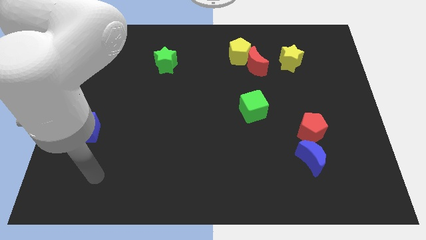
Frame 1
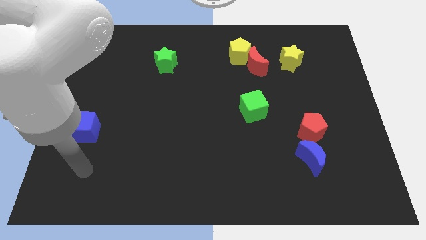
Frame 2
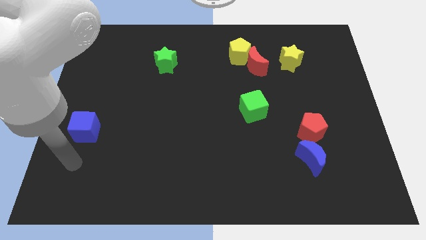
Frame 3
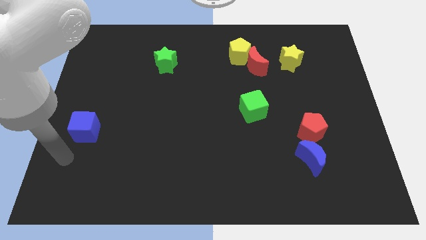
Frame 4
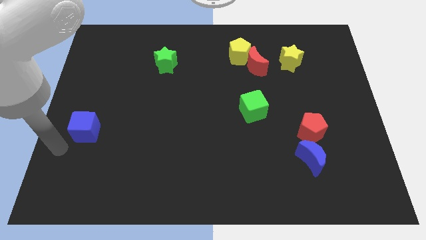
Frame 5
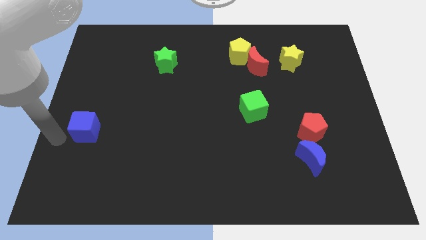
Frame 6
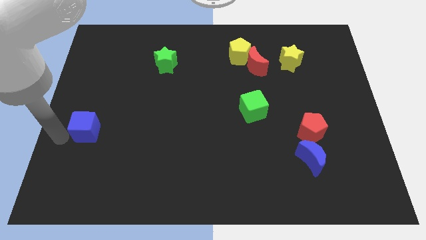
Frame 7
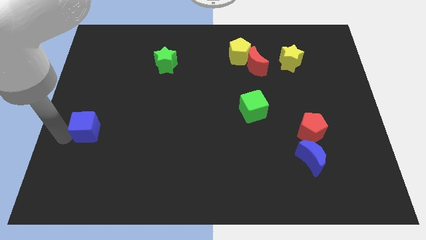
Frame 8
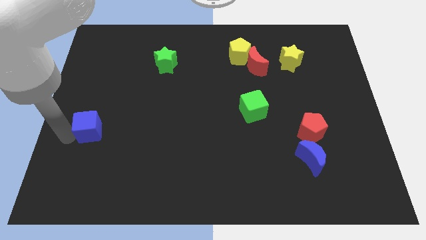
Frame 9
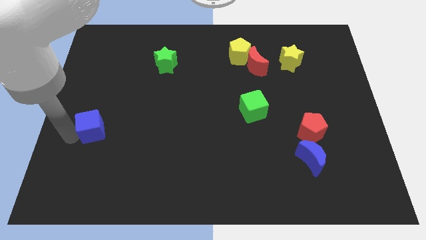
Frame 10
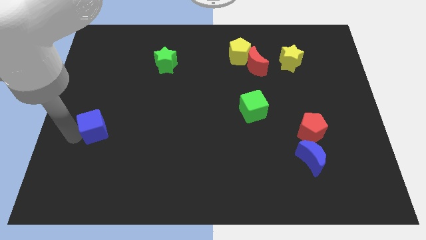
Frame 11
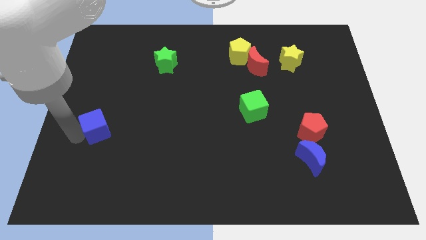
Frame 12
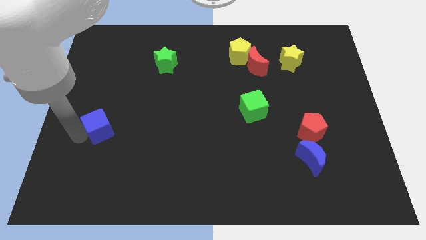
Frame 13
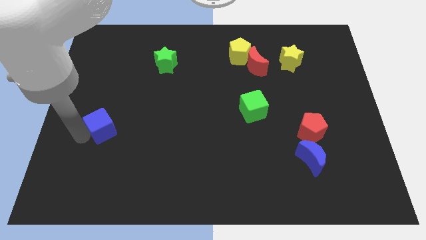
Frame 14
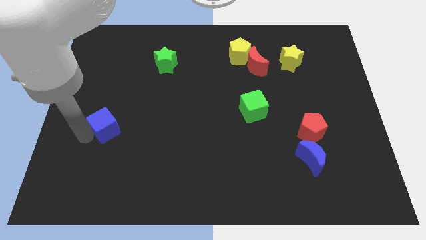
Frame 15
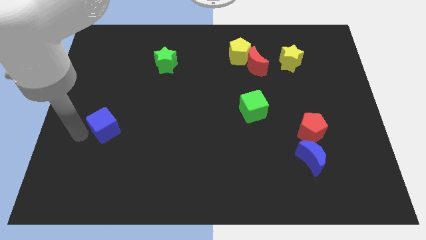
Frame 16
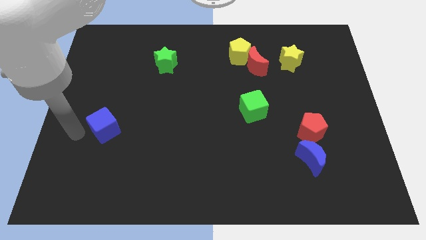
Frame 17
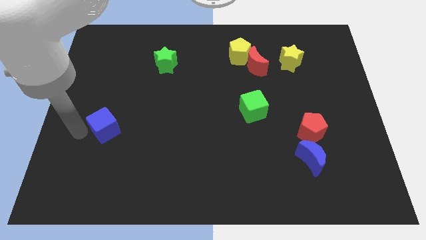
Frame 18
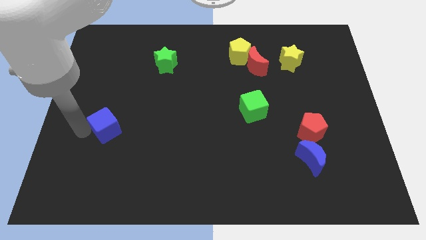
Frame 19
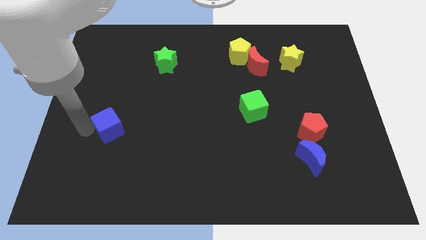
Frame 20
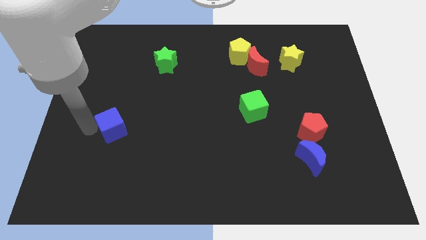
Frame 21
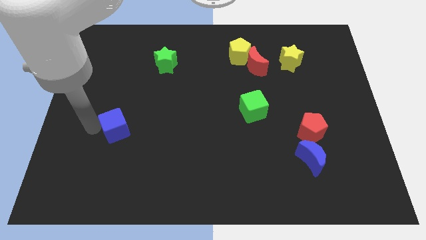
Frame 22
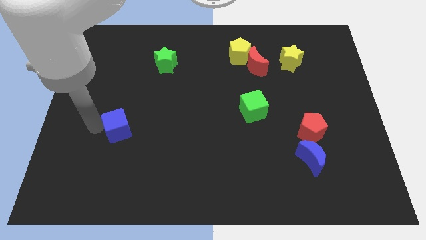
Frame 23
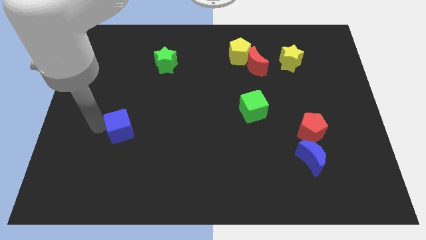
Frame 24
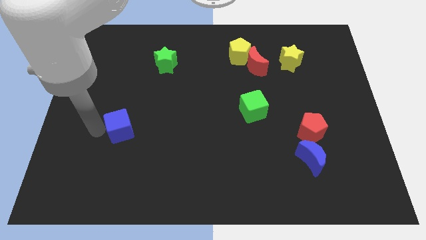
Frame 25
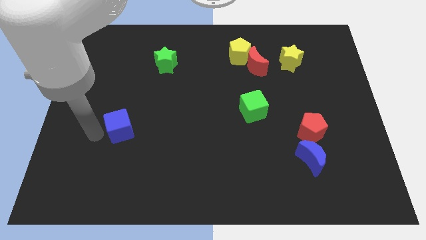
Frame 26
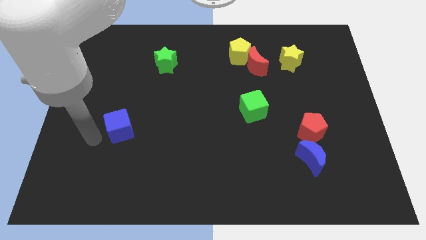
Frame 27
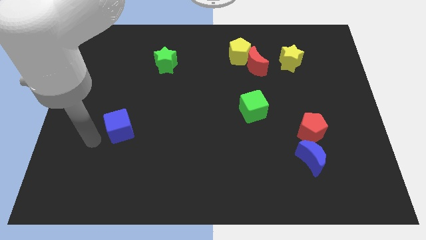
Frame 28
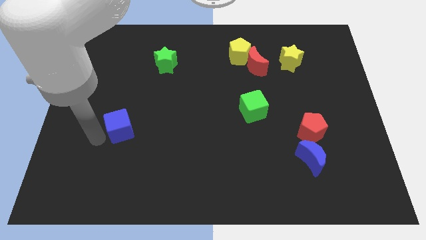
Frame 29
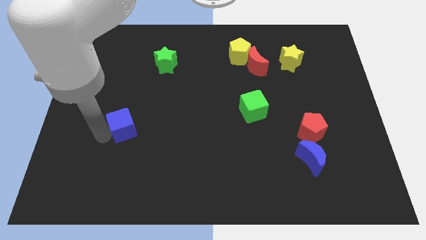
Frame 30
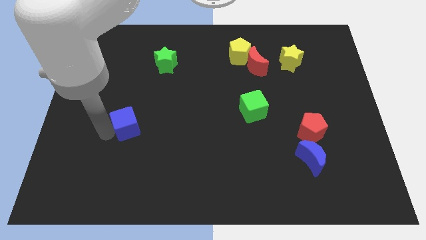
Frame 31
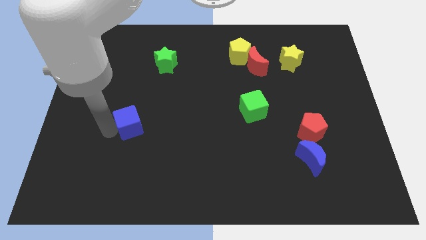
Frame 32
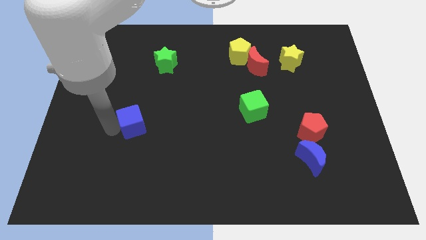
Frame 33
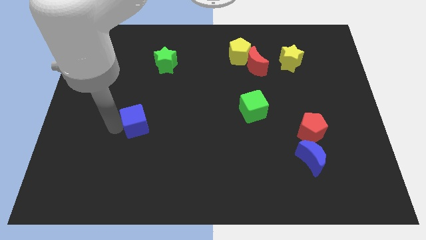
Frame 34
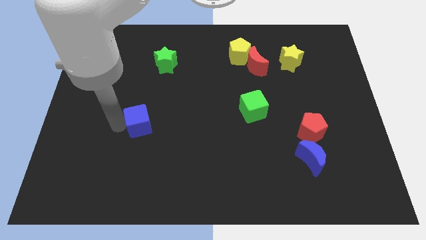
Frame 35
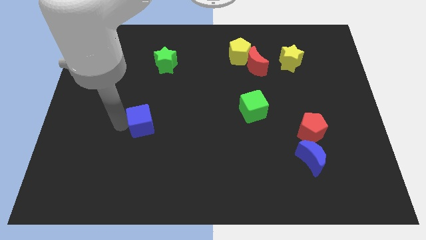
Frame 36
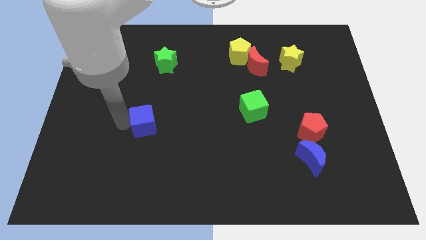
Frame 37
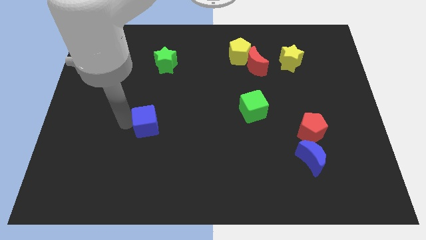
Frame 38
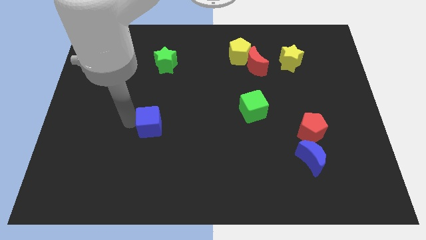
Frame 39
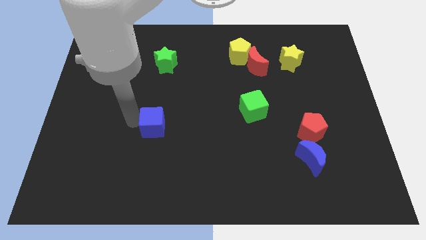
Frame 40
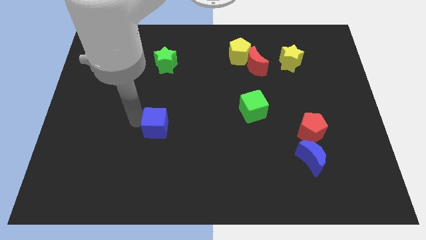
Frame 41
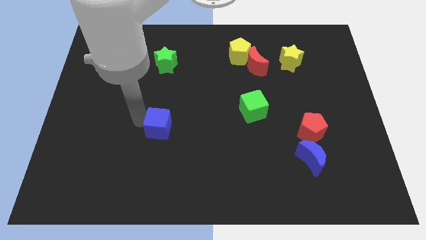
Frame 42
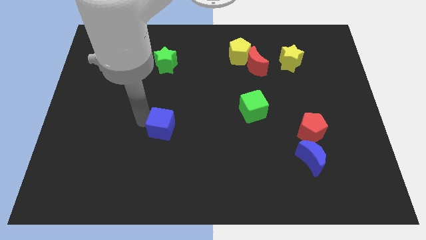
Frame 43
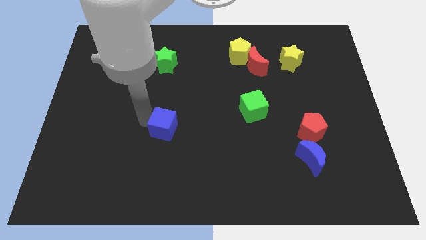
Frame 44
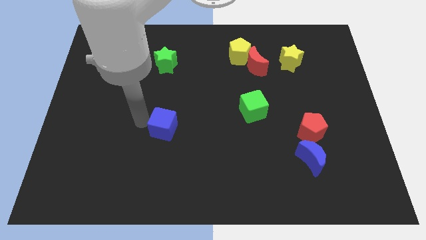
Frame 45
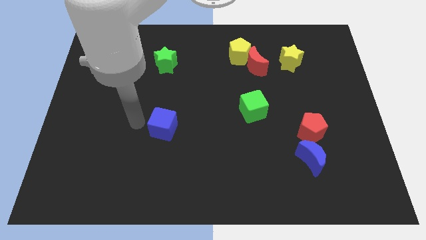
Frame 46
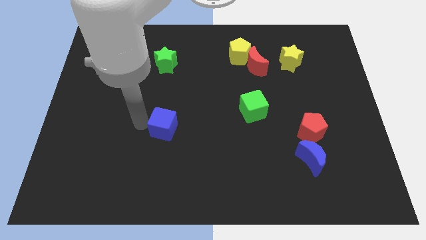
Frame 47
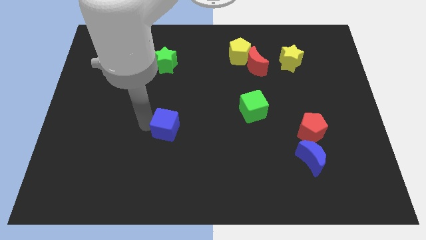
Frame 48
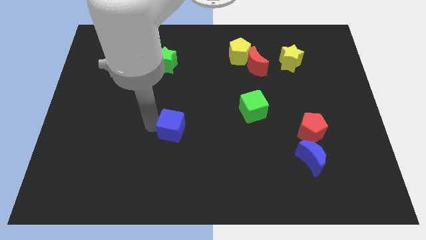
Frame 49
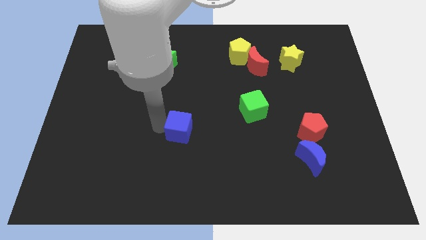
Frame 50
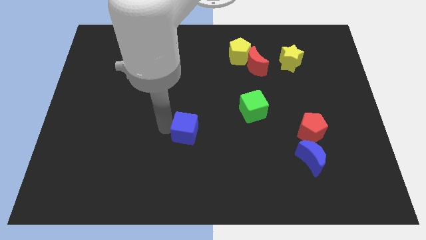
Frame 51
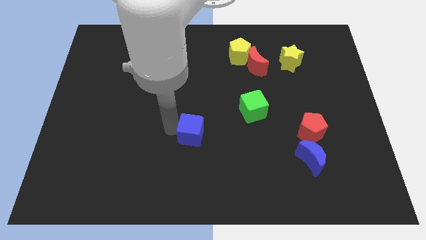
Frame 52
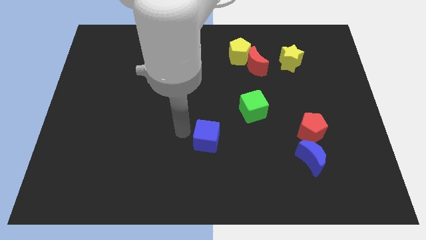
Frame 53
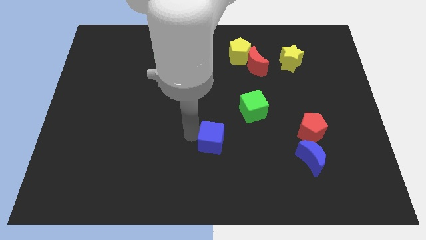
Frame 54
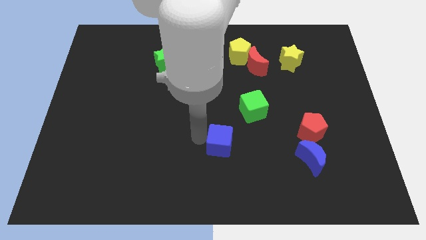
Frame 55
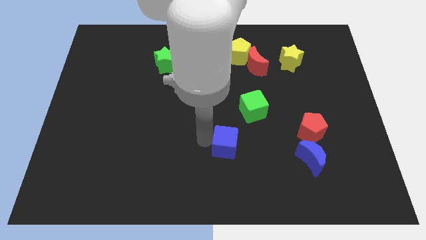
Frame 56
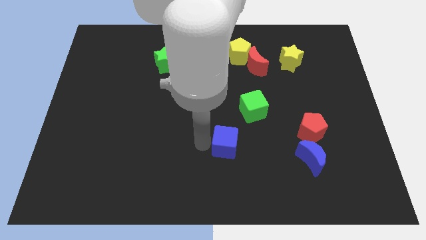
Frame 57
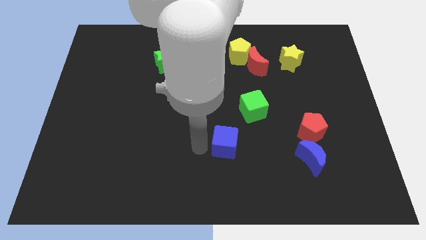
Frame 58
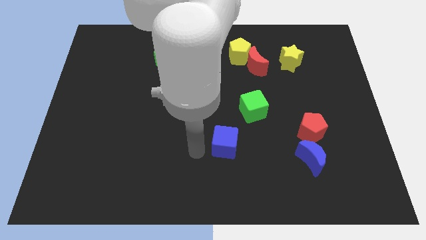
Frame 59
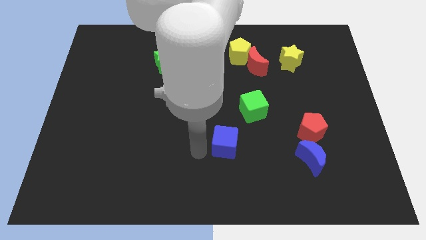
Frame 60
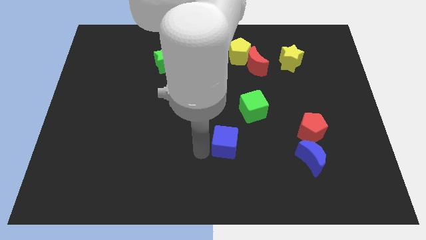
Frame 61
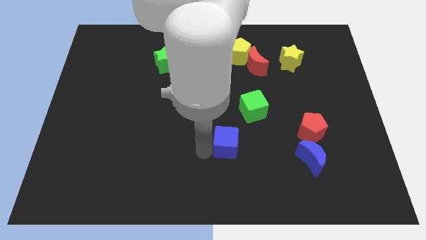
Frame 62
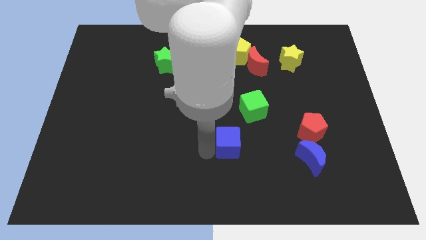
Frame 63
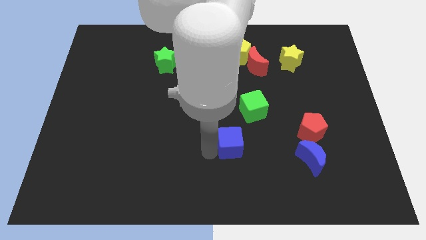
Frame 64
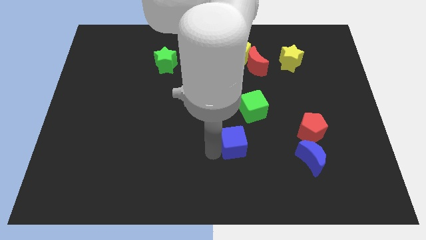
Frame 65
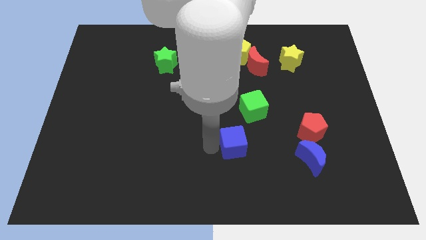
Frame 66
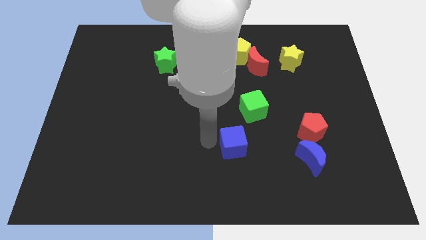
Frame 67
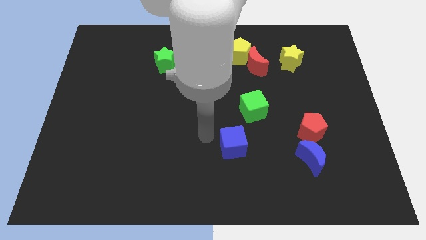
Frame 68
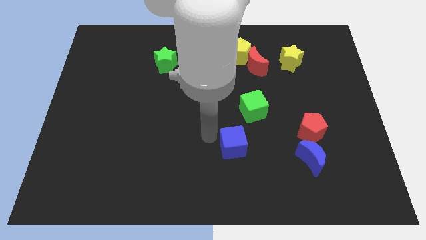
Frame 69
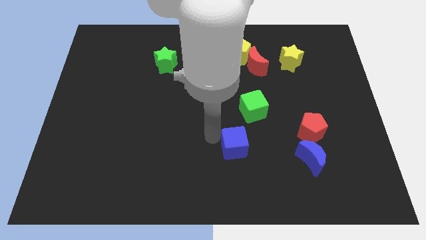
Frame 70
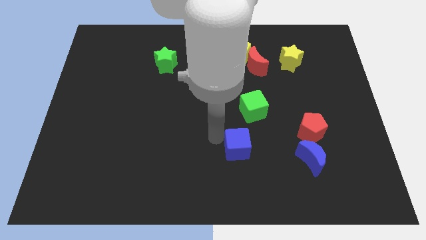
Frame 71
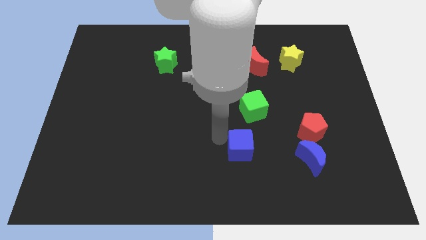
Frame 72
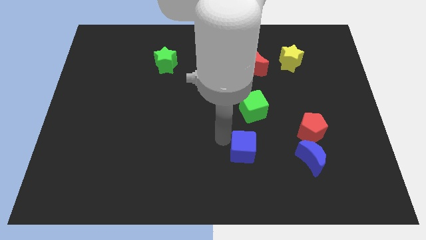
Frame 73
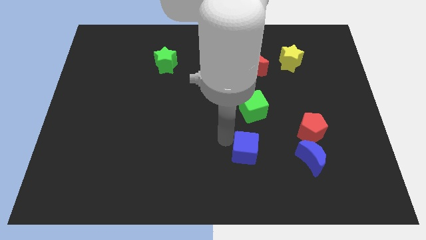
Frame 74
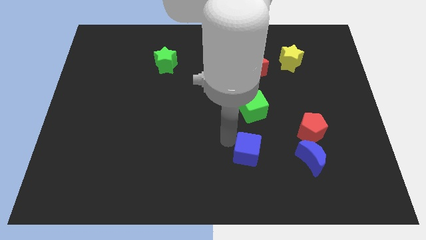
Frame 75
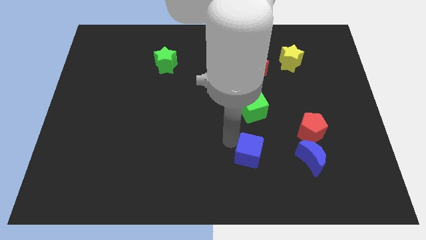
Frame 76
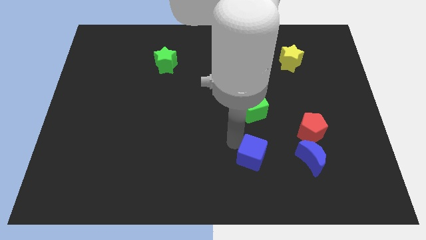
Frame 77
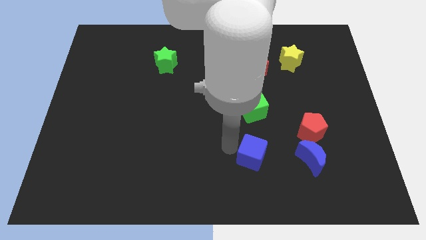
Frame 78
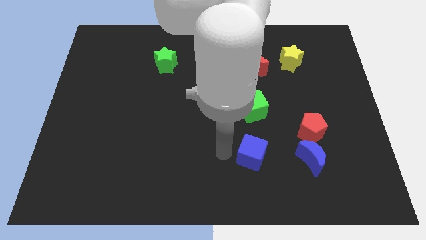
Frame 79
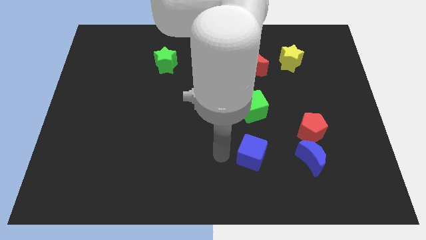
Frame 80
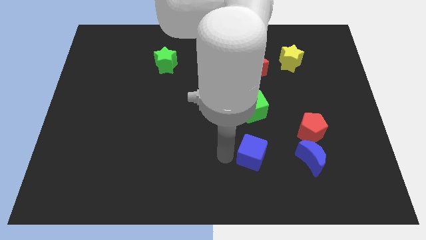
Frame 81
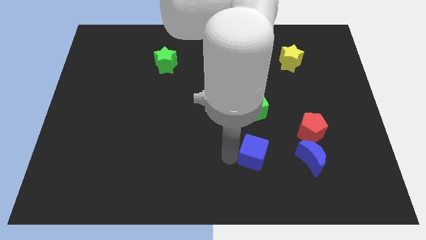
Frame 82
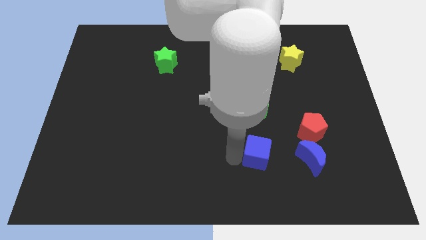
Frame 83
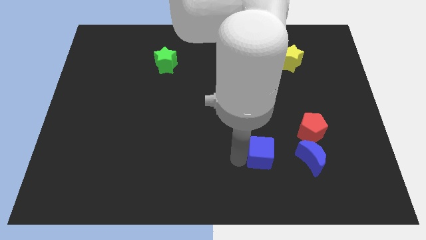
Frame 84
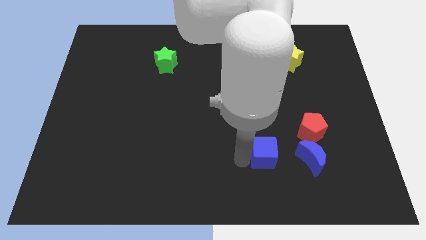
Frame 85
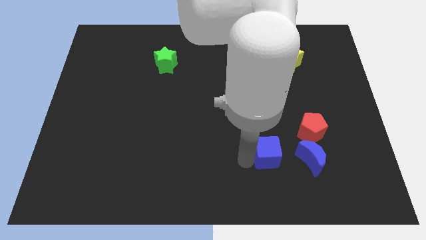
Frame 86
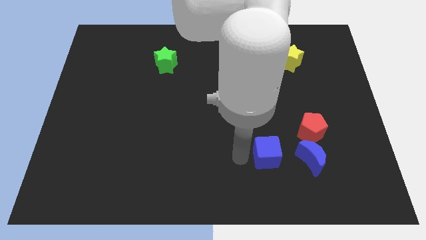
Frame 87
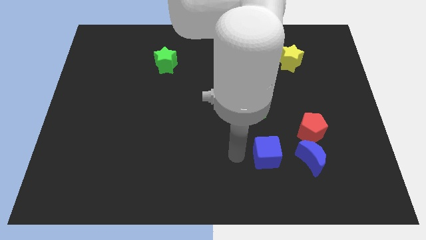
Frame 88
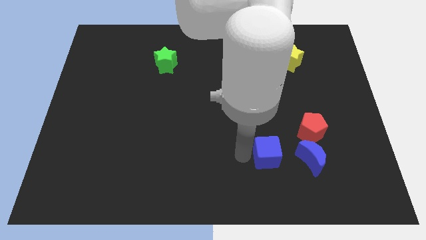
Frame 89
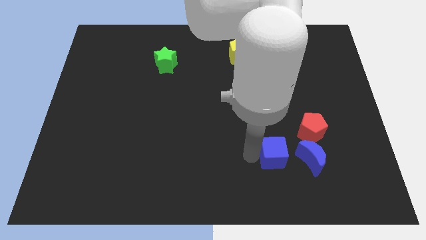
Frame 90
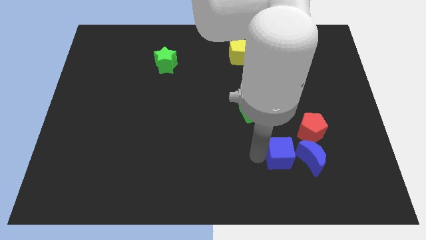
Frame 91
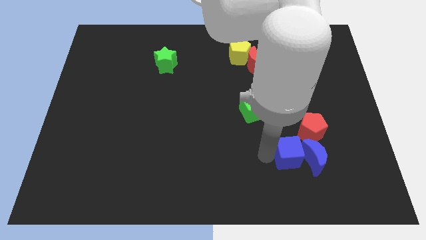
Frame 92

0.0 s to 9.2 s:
push the blue cube next to the blue moon
